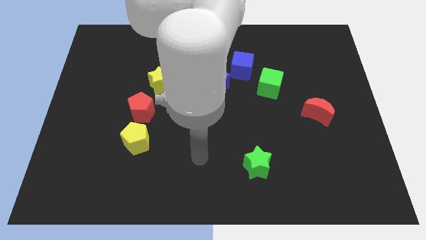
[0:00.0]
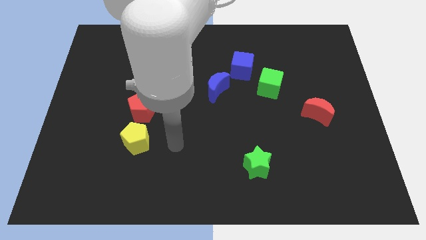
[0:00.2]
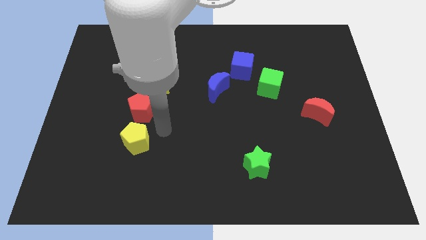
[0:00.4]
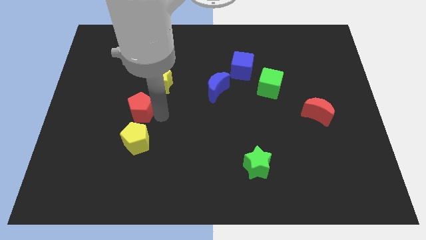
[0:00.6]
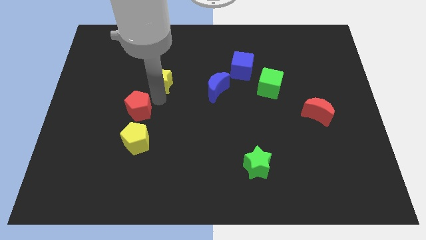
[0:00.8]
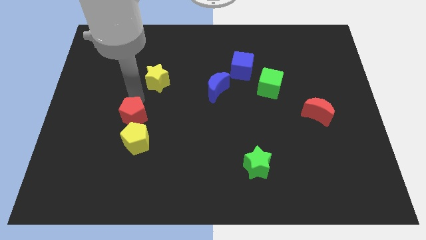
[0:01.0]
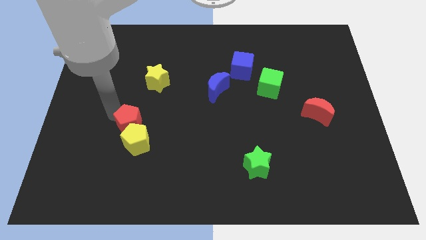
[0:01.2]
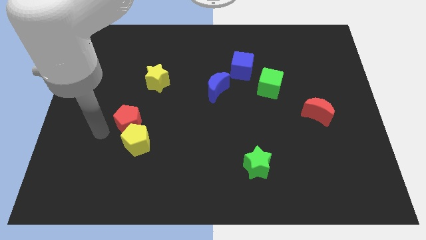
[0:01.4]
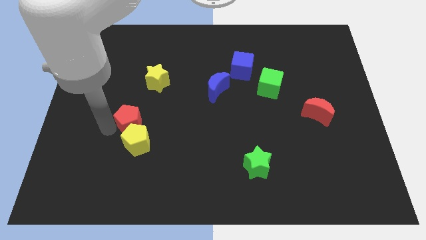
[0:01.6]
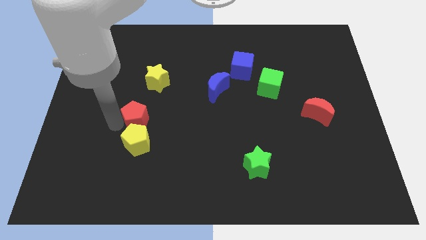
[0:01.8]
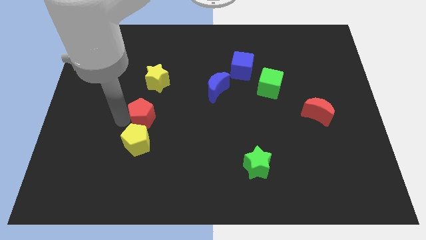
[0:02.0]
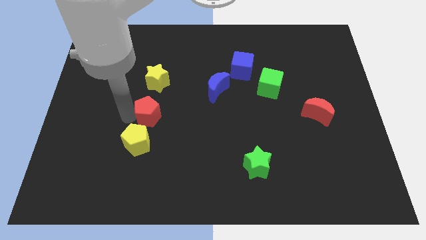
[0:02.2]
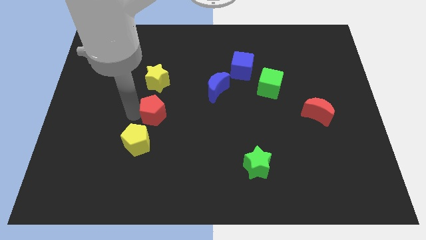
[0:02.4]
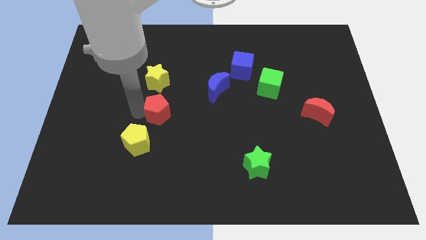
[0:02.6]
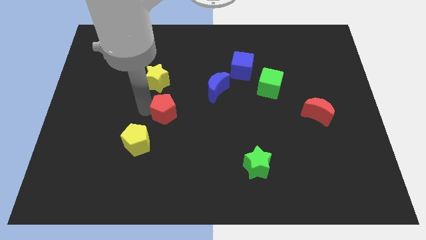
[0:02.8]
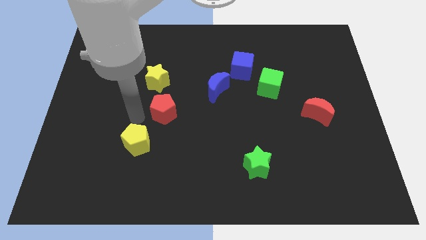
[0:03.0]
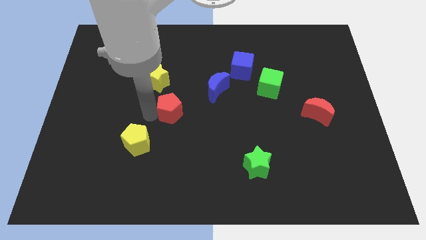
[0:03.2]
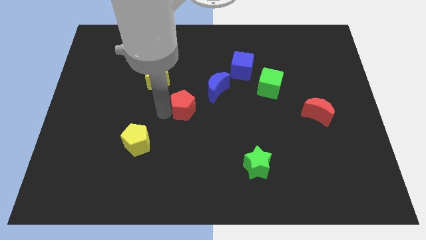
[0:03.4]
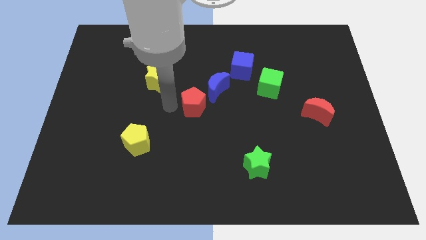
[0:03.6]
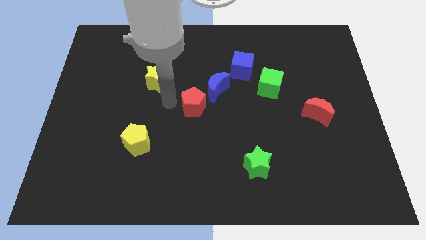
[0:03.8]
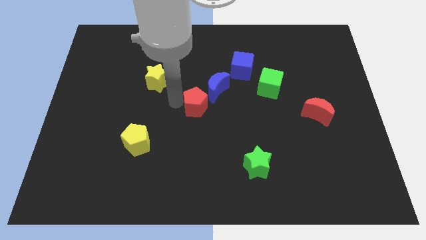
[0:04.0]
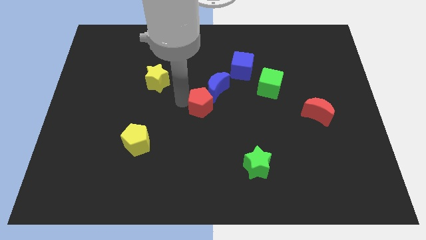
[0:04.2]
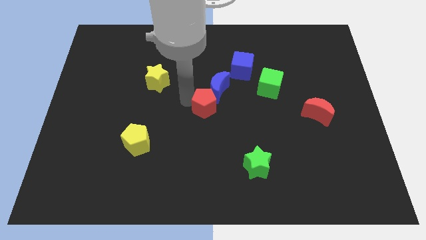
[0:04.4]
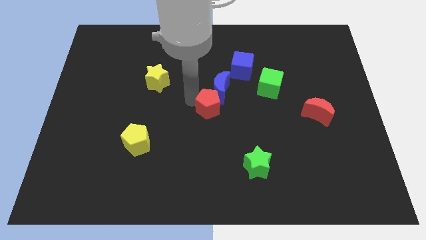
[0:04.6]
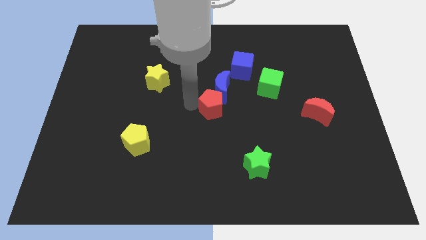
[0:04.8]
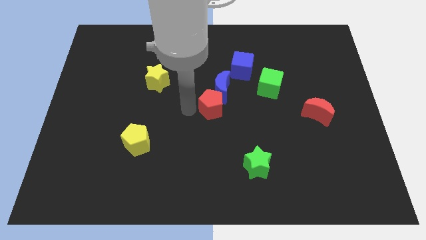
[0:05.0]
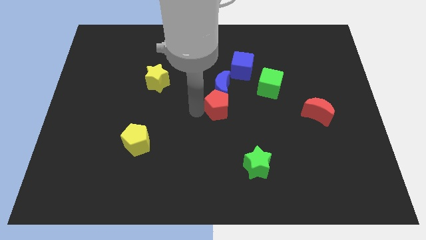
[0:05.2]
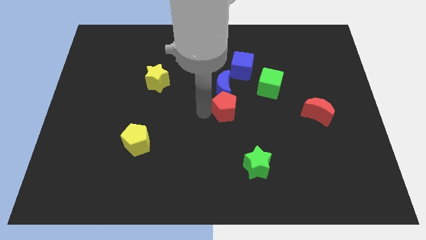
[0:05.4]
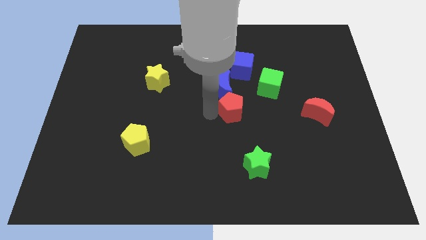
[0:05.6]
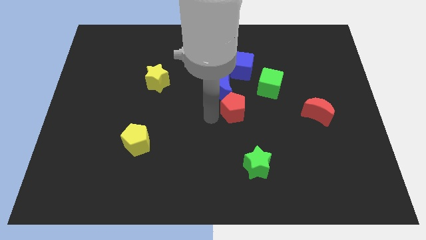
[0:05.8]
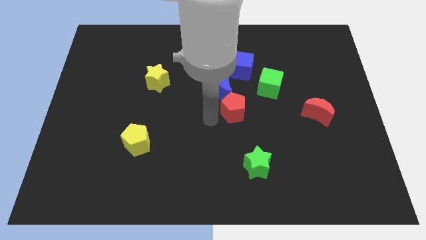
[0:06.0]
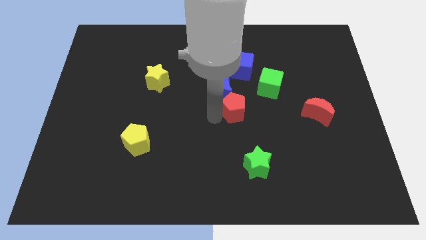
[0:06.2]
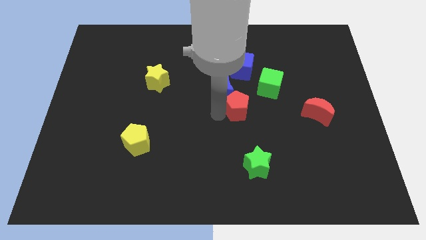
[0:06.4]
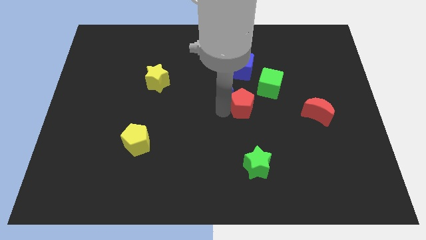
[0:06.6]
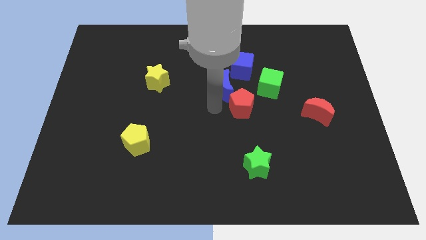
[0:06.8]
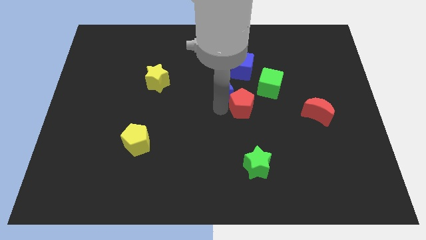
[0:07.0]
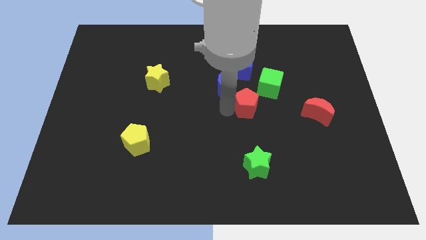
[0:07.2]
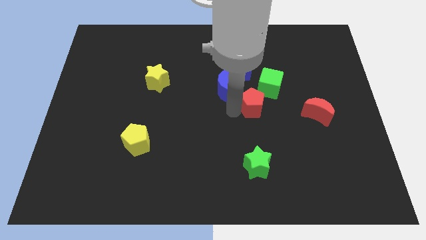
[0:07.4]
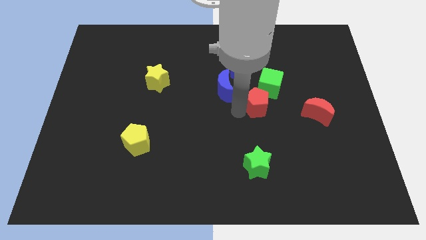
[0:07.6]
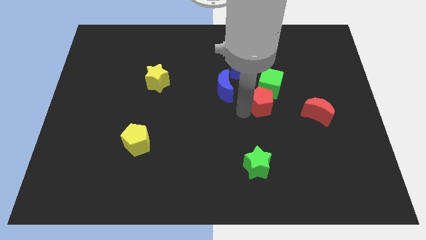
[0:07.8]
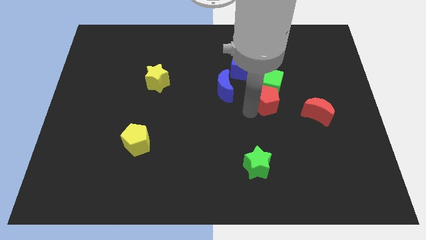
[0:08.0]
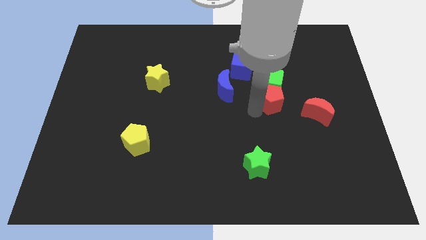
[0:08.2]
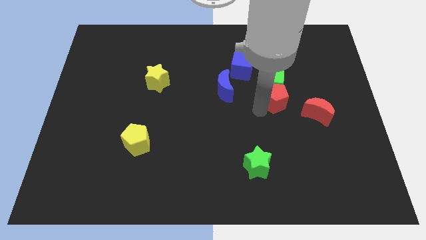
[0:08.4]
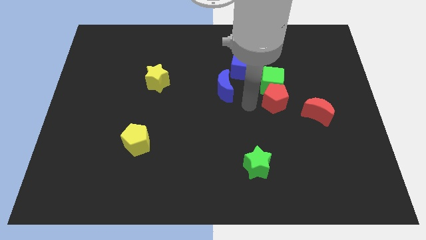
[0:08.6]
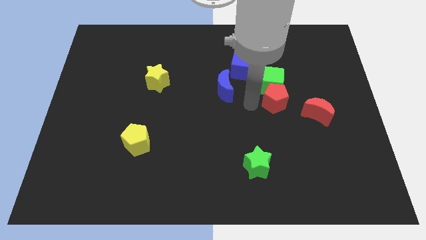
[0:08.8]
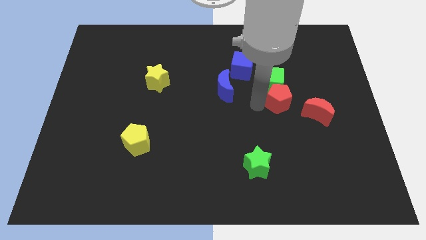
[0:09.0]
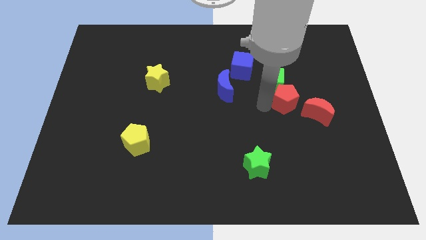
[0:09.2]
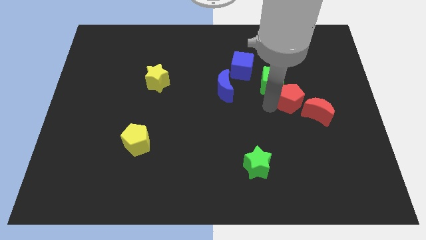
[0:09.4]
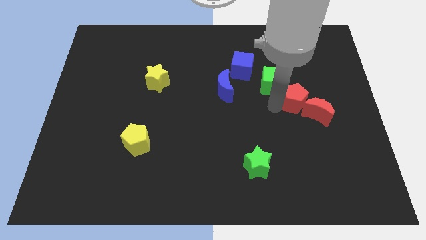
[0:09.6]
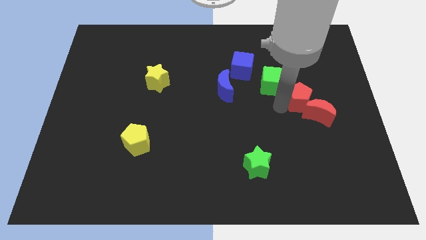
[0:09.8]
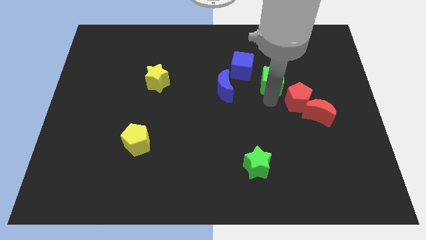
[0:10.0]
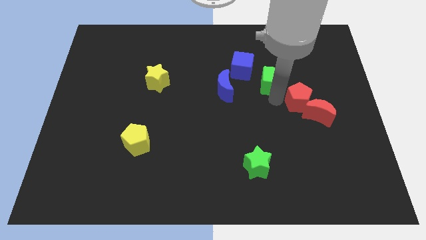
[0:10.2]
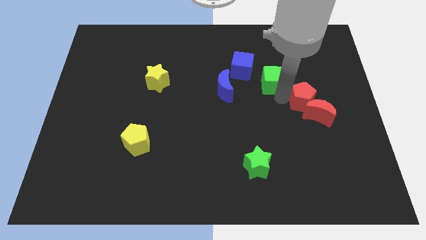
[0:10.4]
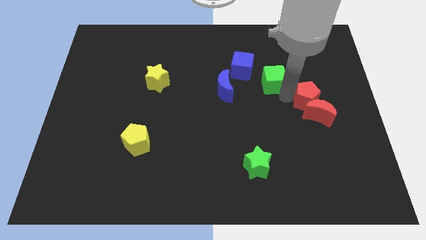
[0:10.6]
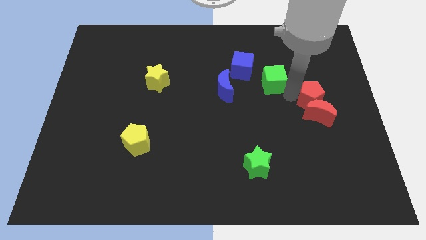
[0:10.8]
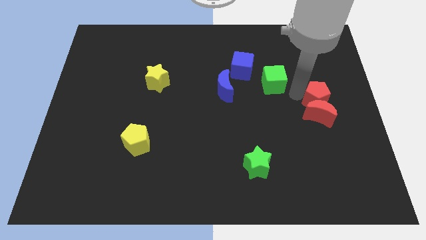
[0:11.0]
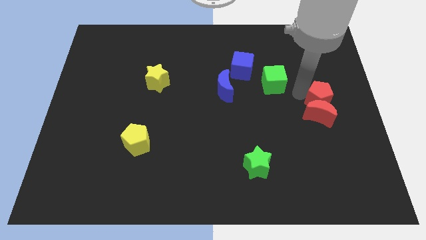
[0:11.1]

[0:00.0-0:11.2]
push the red pentagon to the center right

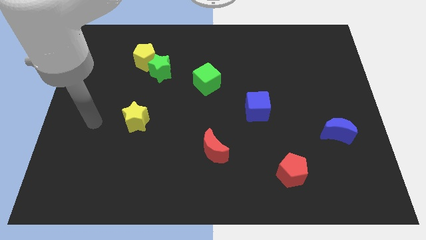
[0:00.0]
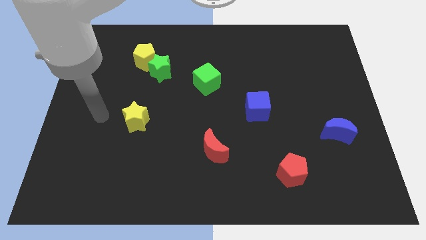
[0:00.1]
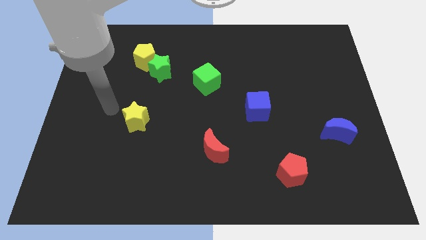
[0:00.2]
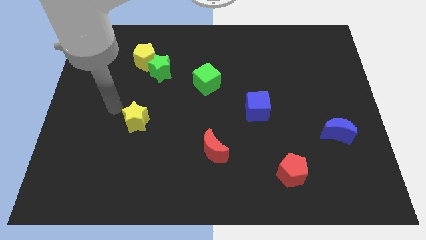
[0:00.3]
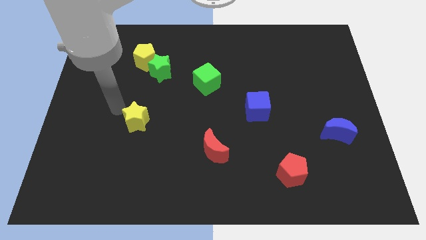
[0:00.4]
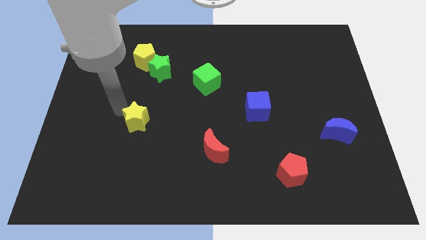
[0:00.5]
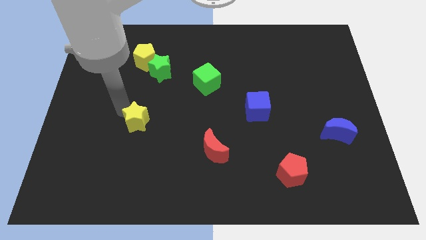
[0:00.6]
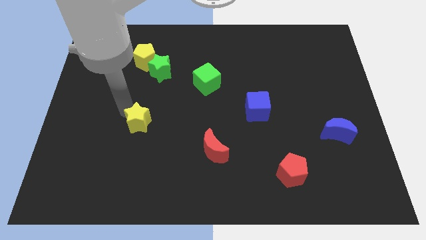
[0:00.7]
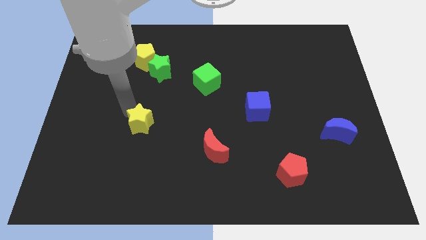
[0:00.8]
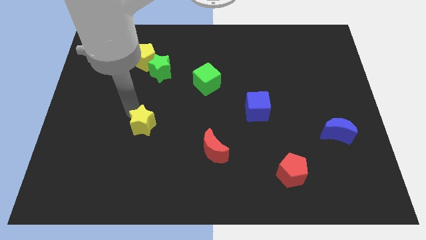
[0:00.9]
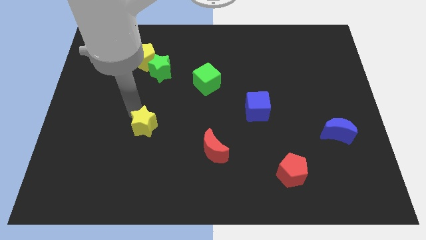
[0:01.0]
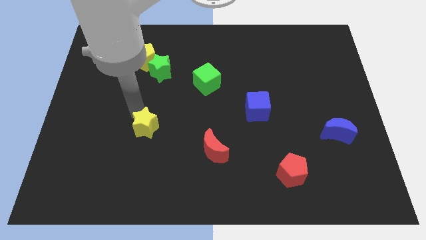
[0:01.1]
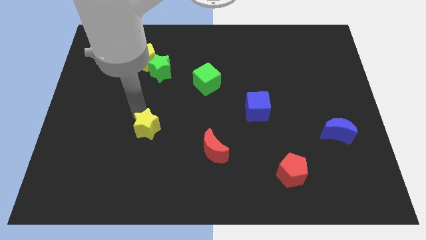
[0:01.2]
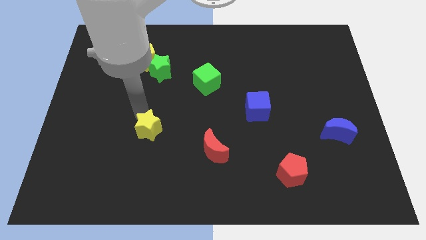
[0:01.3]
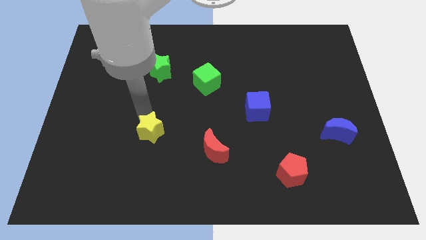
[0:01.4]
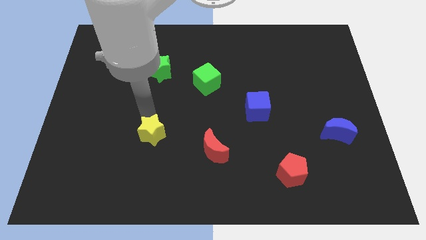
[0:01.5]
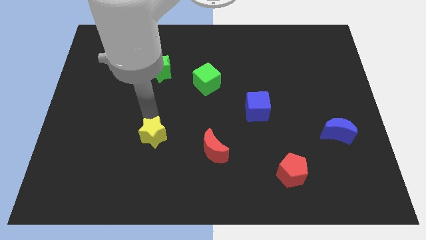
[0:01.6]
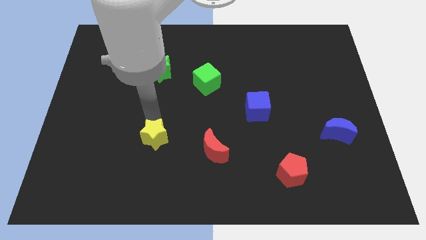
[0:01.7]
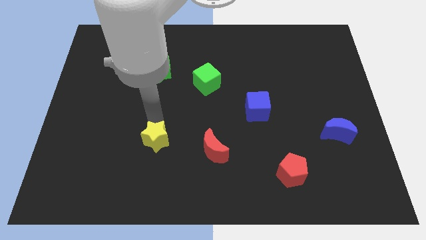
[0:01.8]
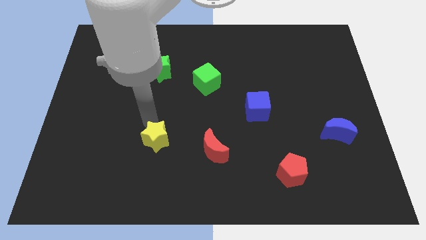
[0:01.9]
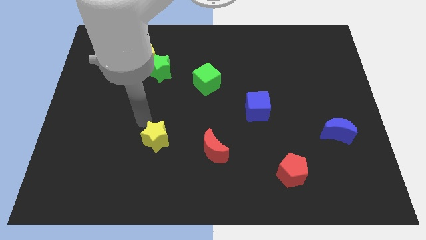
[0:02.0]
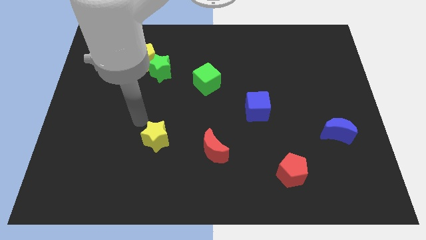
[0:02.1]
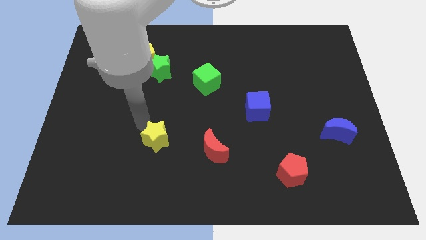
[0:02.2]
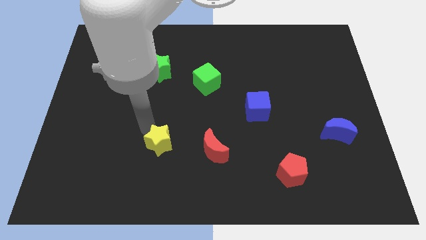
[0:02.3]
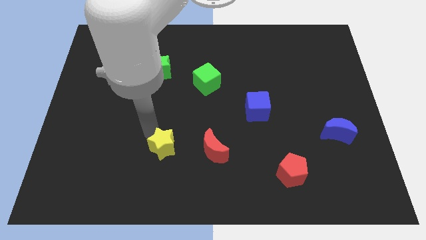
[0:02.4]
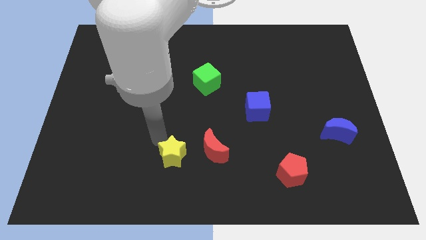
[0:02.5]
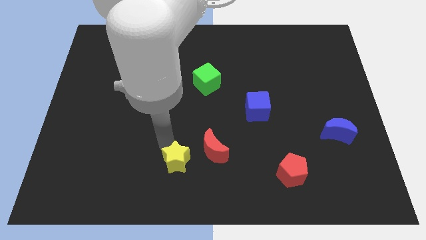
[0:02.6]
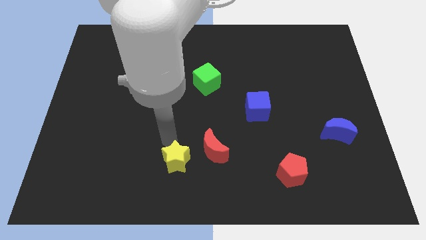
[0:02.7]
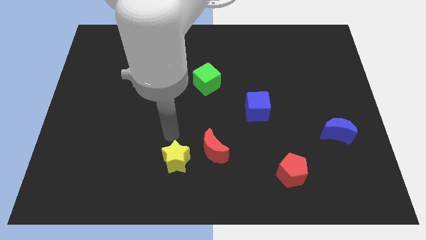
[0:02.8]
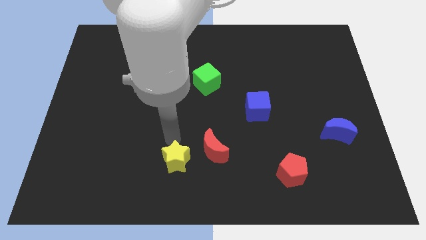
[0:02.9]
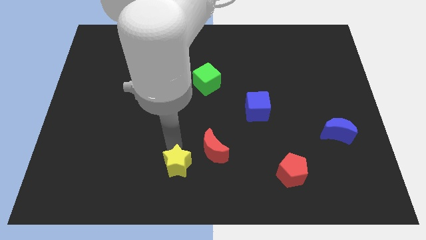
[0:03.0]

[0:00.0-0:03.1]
push the yellow star to the bottom side
